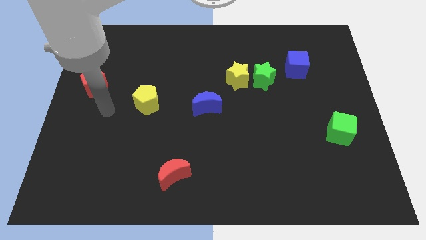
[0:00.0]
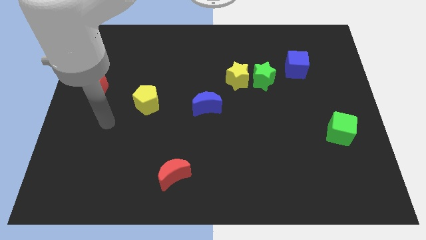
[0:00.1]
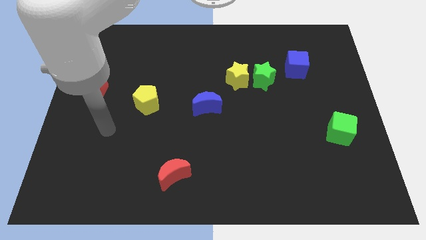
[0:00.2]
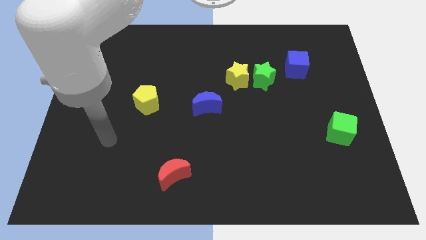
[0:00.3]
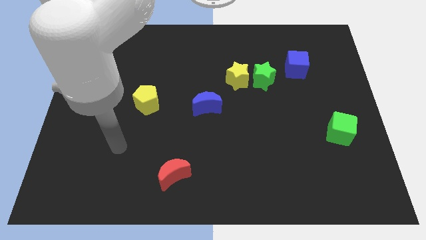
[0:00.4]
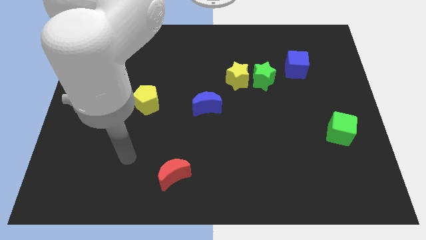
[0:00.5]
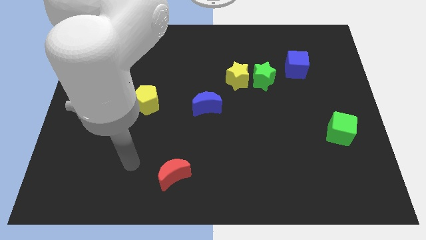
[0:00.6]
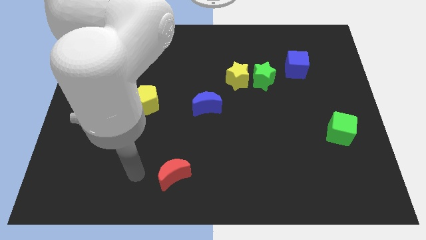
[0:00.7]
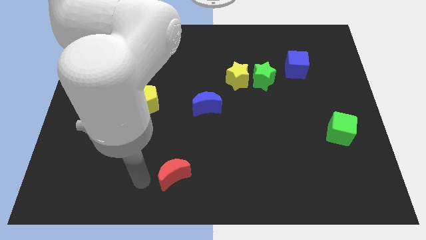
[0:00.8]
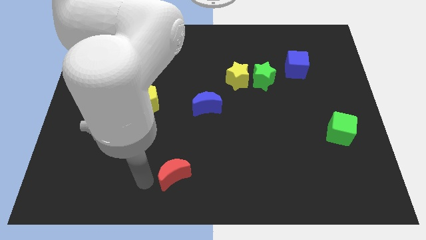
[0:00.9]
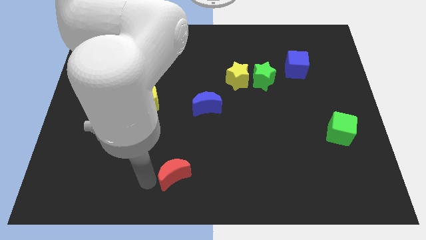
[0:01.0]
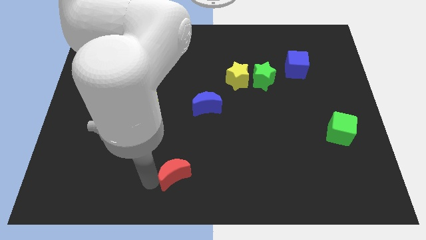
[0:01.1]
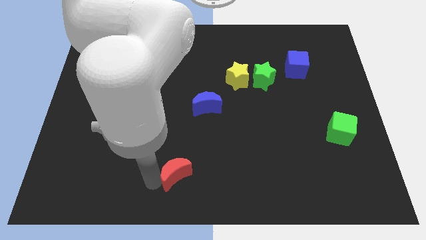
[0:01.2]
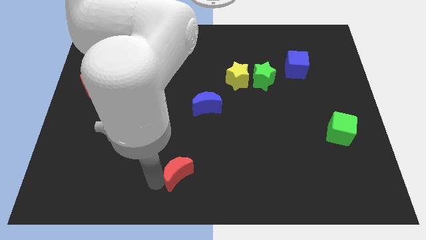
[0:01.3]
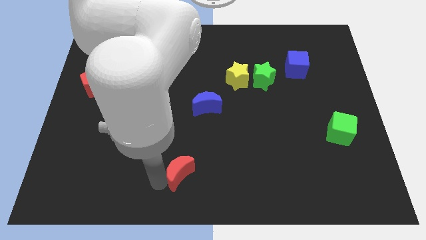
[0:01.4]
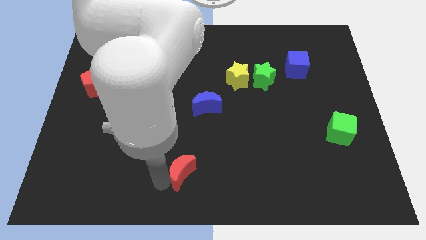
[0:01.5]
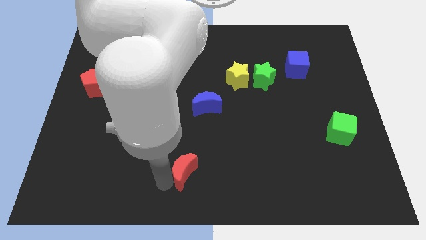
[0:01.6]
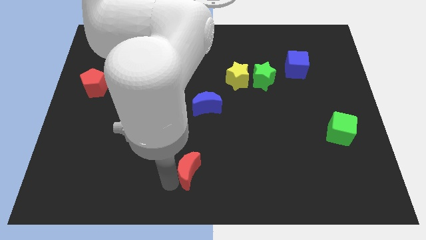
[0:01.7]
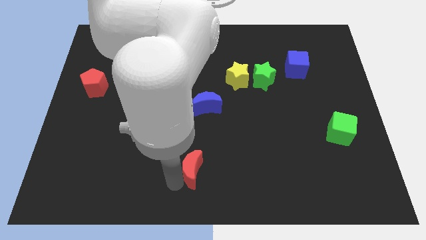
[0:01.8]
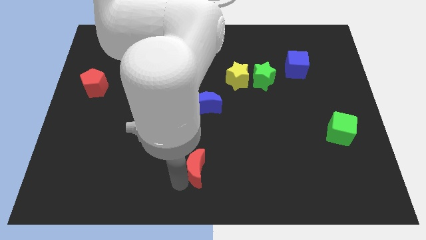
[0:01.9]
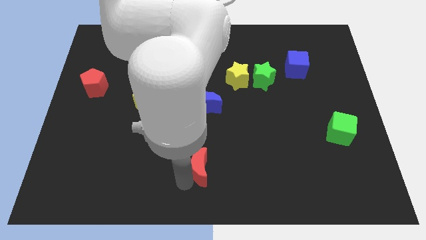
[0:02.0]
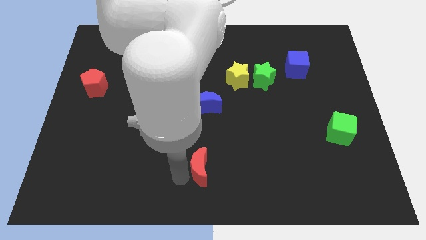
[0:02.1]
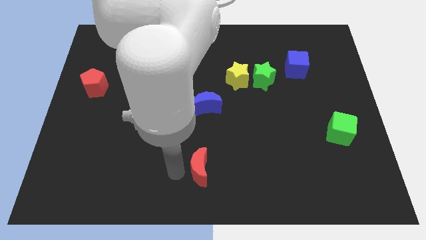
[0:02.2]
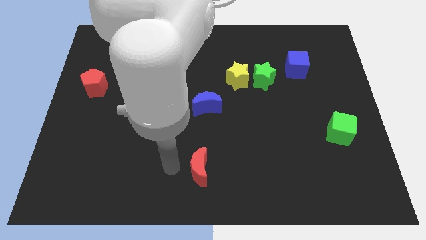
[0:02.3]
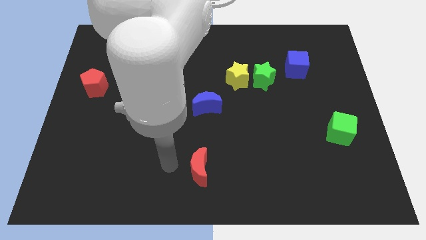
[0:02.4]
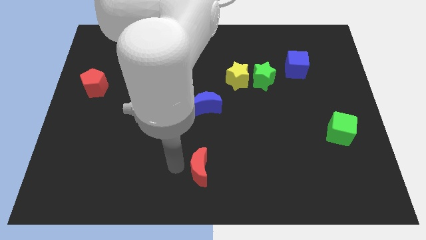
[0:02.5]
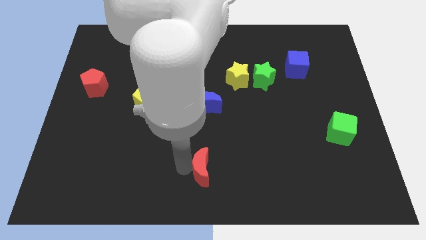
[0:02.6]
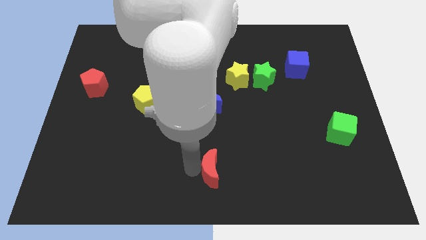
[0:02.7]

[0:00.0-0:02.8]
move the red moon somewhat right

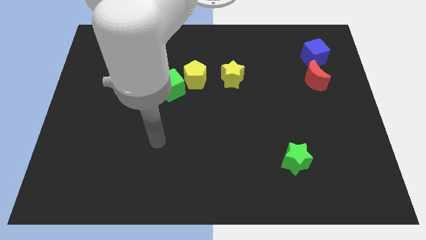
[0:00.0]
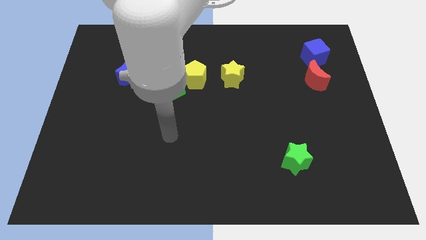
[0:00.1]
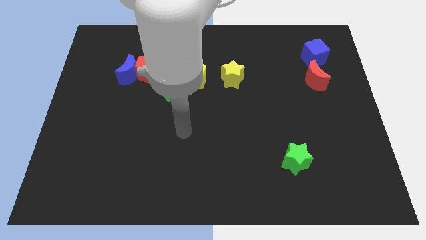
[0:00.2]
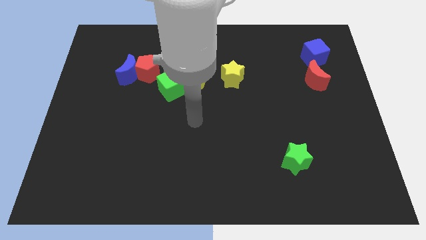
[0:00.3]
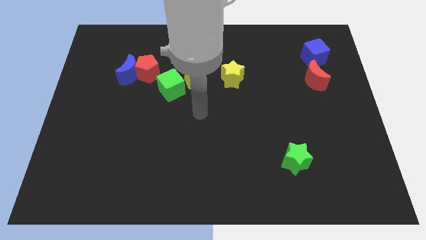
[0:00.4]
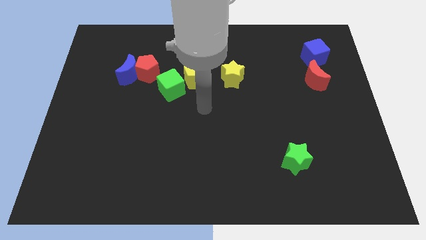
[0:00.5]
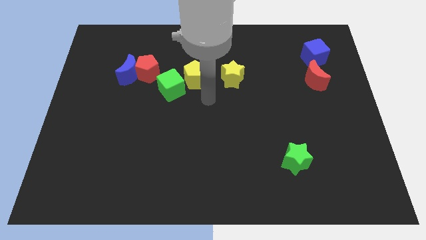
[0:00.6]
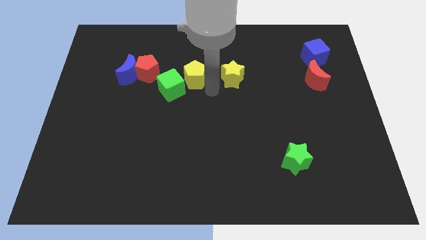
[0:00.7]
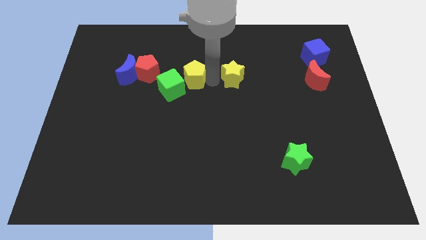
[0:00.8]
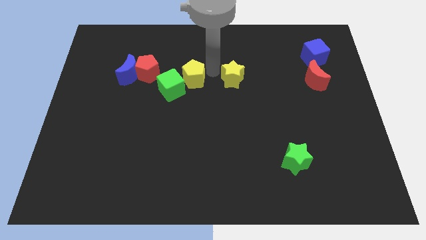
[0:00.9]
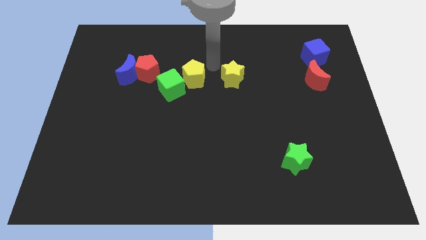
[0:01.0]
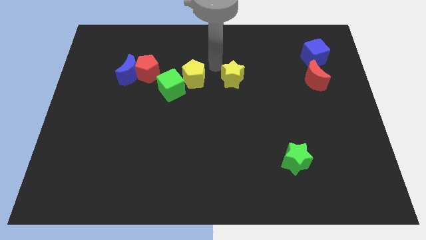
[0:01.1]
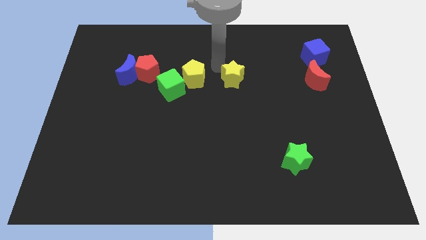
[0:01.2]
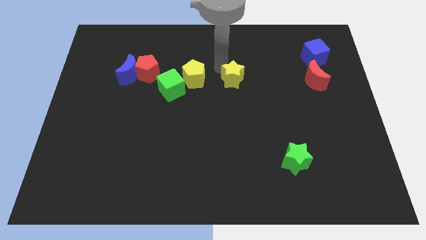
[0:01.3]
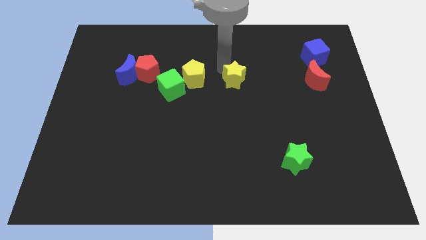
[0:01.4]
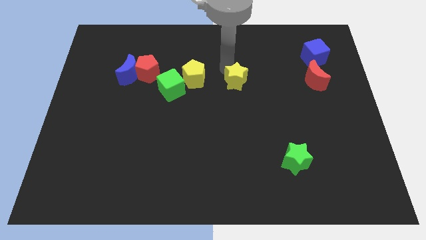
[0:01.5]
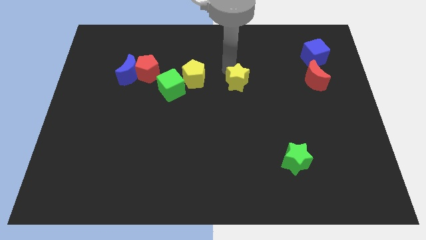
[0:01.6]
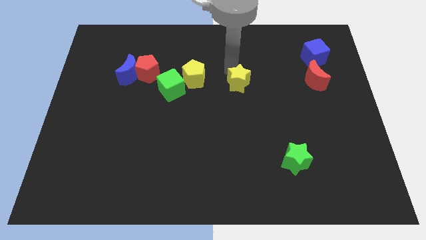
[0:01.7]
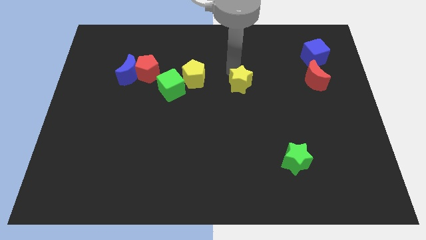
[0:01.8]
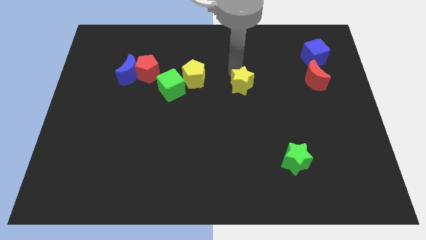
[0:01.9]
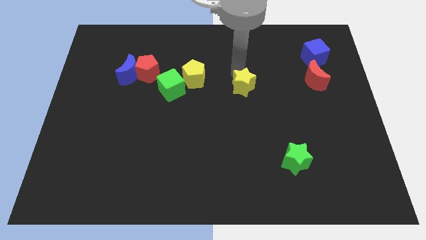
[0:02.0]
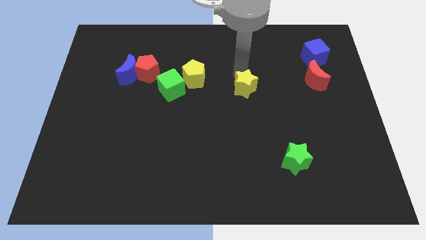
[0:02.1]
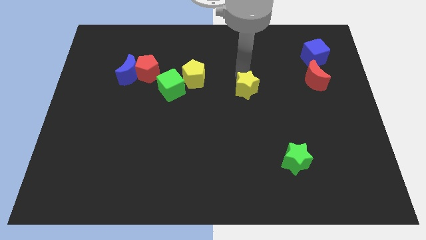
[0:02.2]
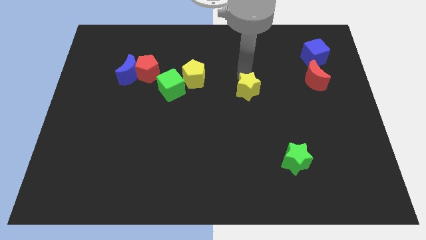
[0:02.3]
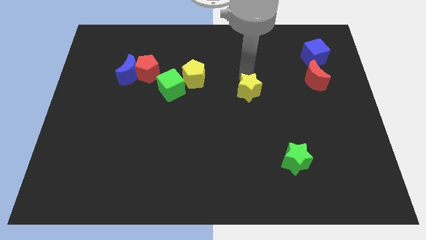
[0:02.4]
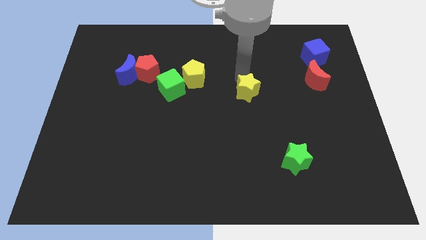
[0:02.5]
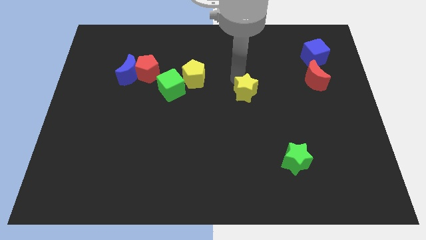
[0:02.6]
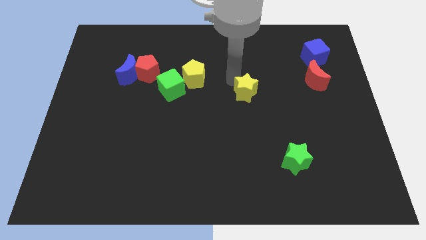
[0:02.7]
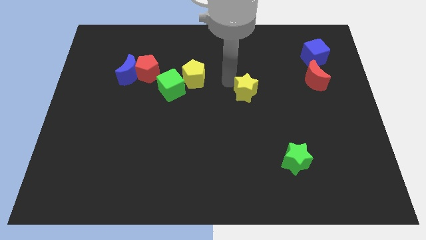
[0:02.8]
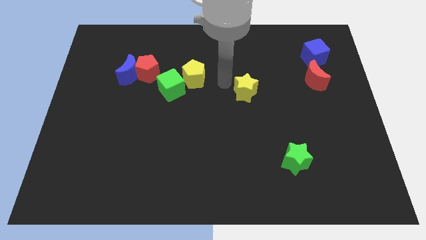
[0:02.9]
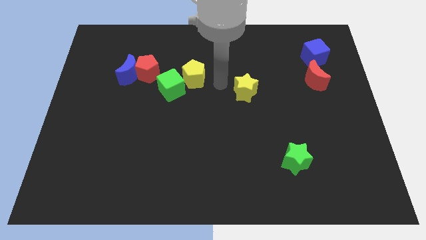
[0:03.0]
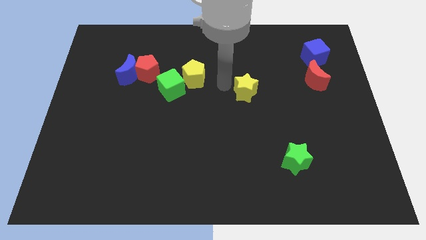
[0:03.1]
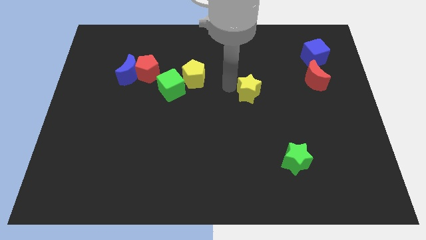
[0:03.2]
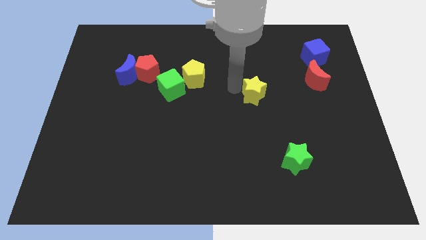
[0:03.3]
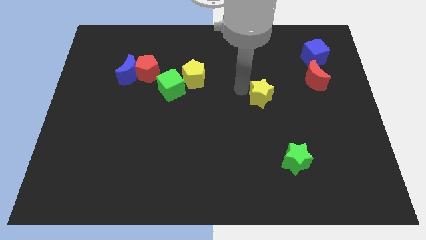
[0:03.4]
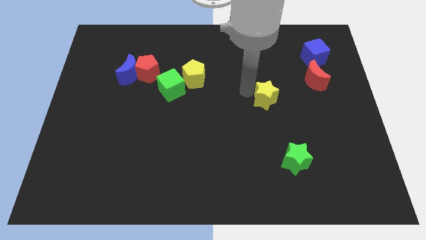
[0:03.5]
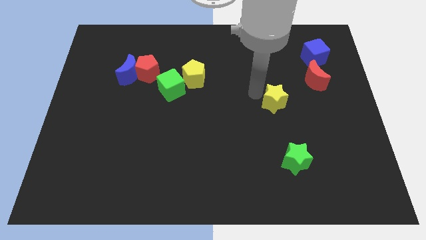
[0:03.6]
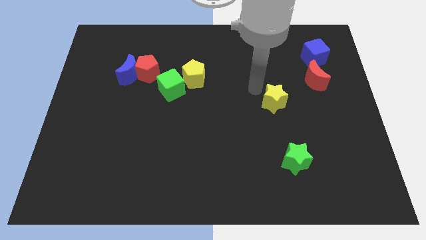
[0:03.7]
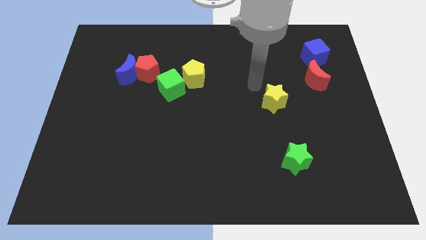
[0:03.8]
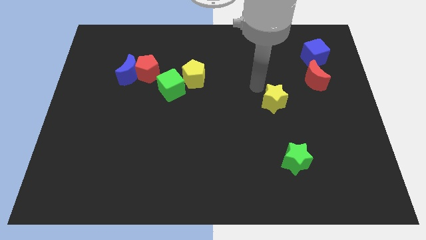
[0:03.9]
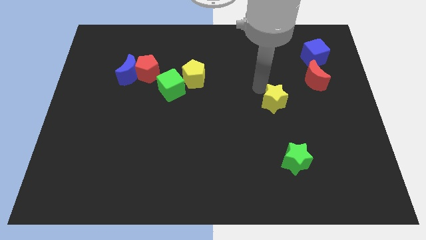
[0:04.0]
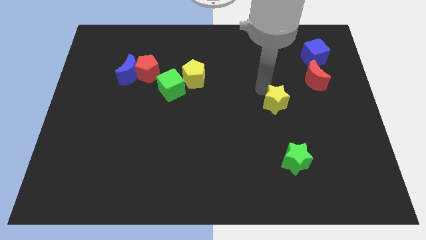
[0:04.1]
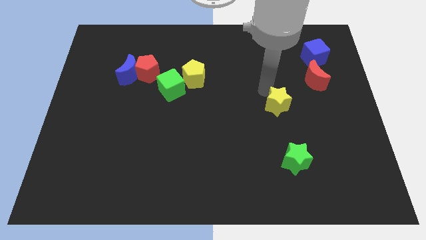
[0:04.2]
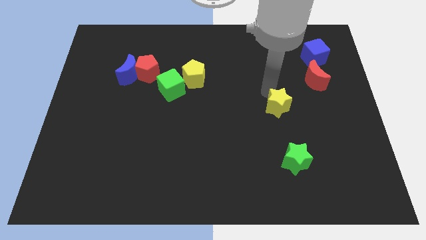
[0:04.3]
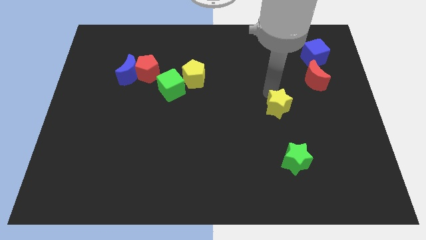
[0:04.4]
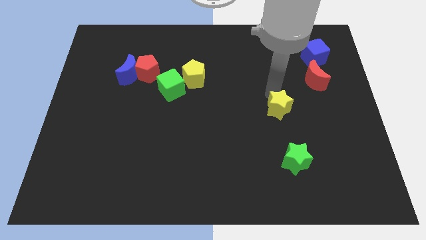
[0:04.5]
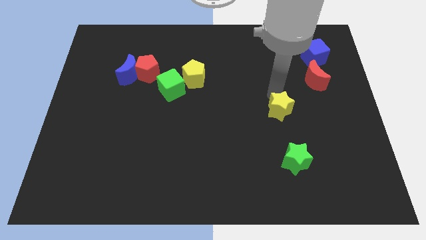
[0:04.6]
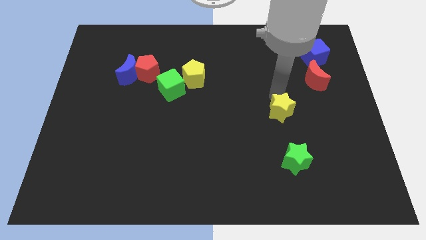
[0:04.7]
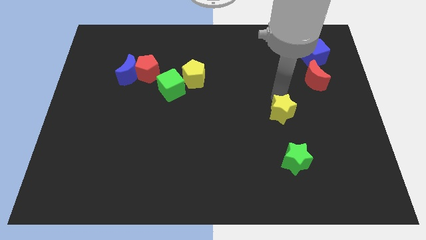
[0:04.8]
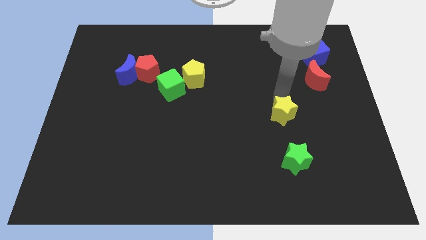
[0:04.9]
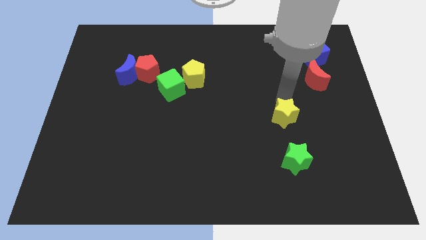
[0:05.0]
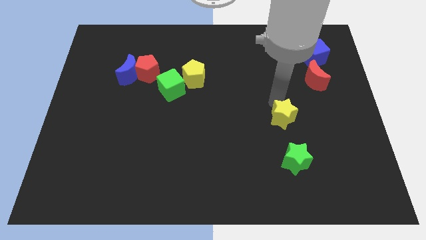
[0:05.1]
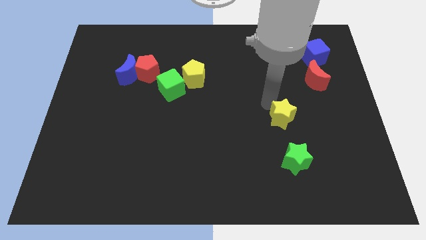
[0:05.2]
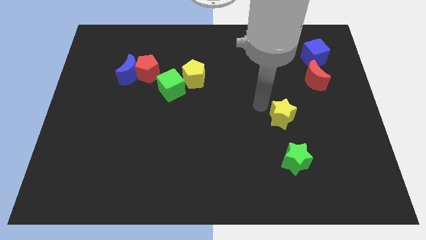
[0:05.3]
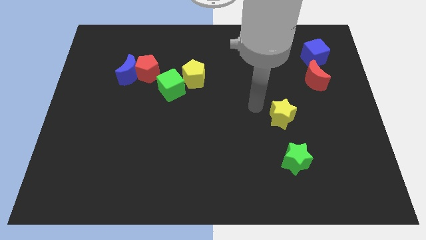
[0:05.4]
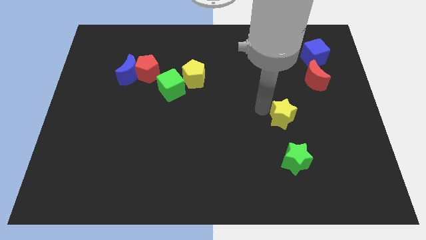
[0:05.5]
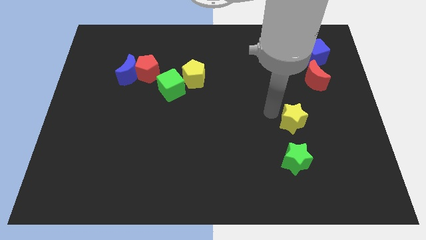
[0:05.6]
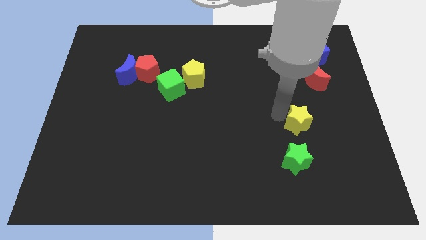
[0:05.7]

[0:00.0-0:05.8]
push the yellow star diagonally down and right
